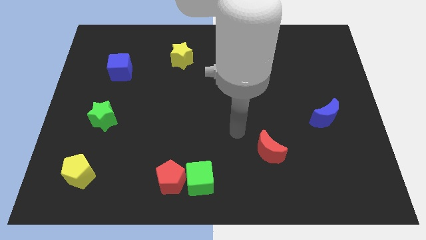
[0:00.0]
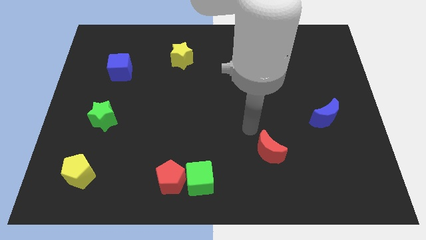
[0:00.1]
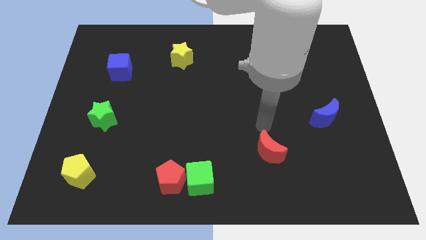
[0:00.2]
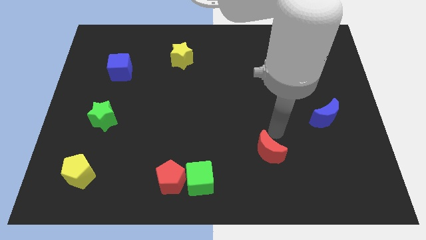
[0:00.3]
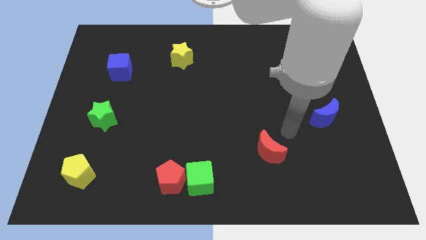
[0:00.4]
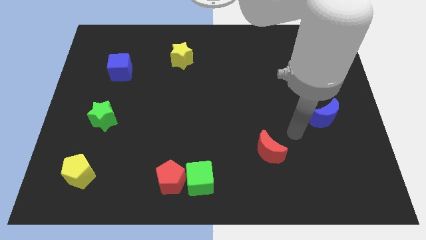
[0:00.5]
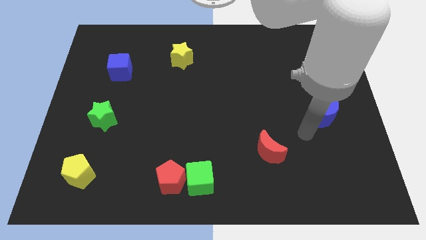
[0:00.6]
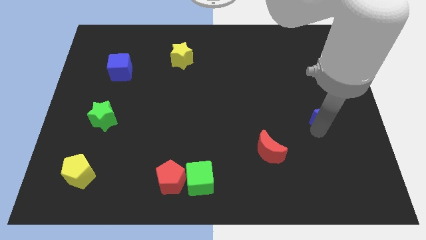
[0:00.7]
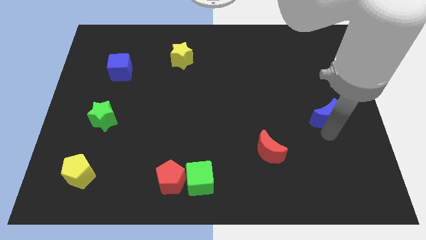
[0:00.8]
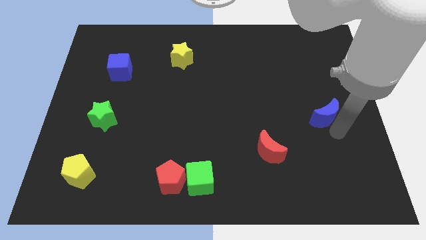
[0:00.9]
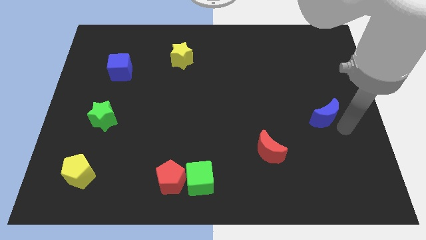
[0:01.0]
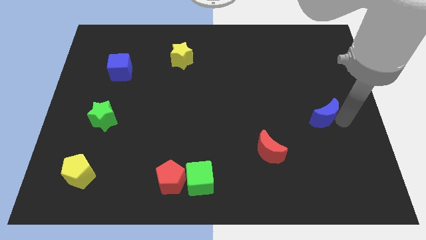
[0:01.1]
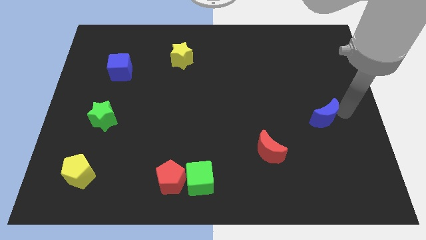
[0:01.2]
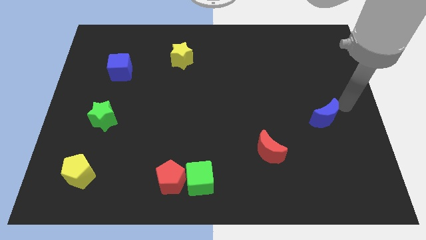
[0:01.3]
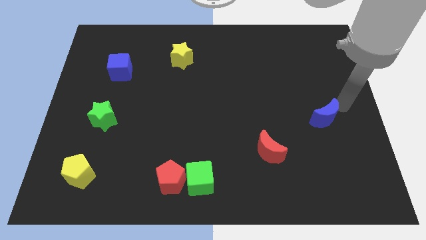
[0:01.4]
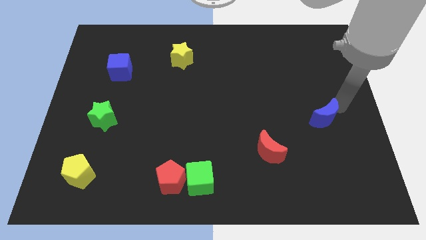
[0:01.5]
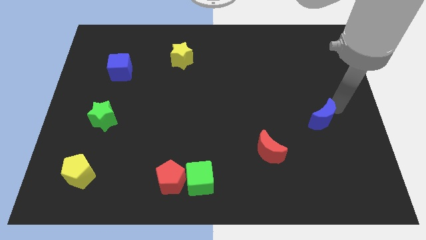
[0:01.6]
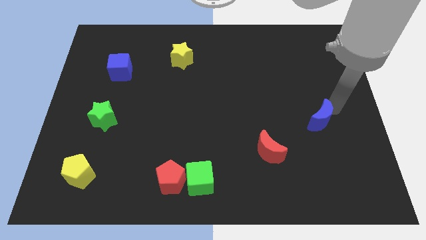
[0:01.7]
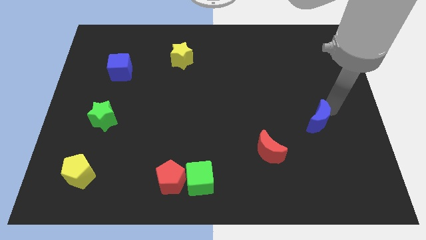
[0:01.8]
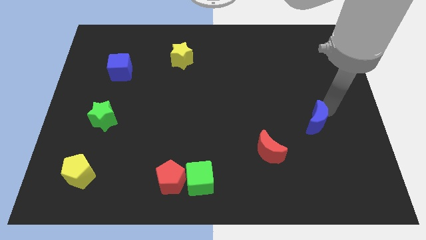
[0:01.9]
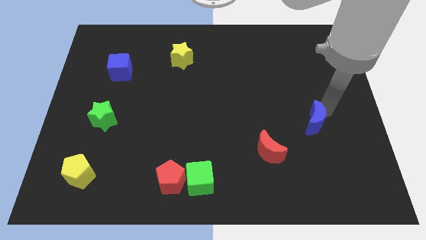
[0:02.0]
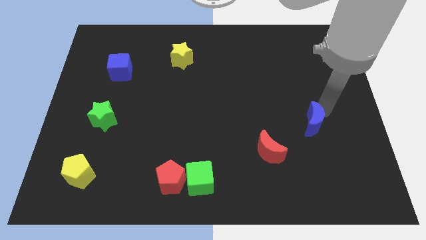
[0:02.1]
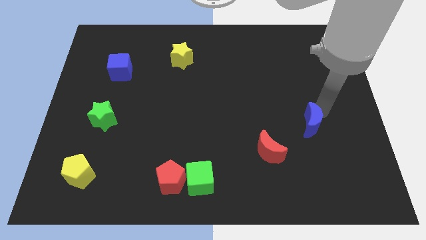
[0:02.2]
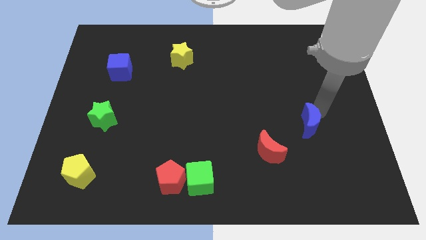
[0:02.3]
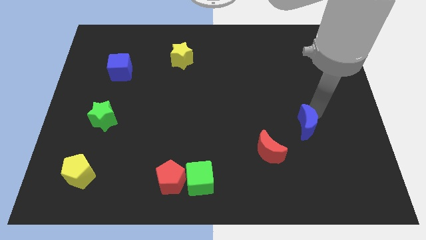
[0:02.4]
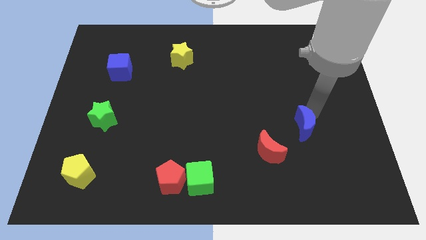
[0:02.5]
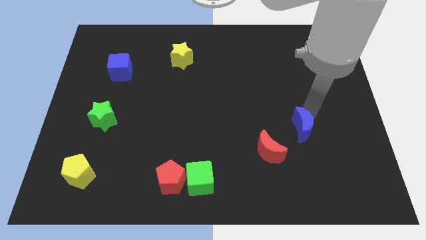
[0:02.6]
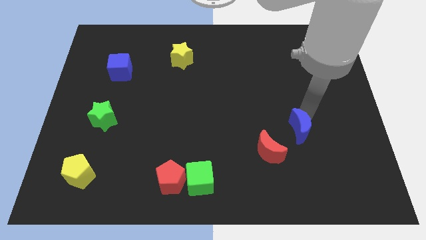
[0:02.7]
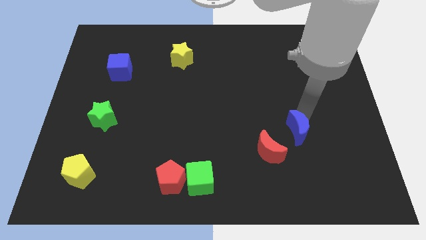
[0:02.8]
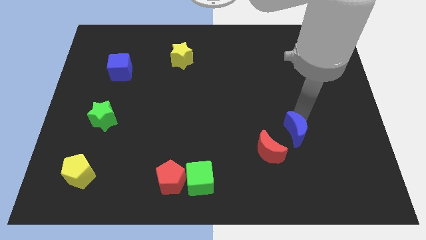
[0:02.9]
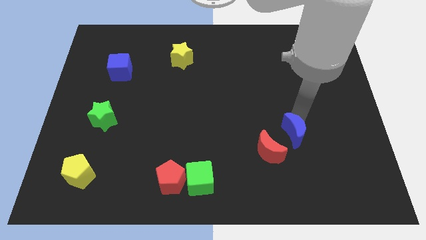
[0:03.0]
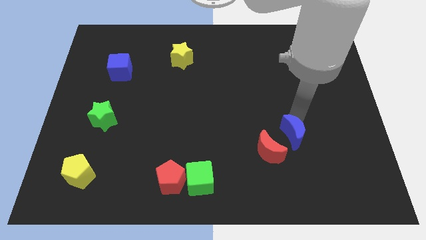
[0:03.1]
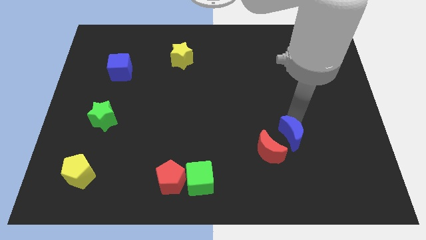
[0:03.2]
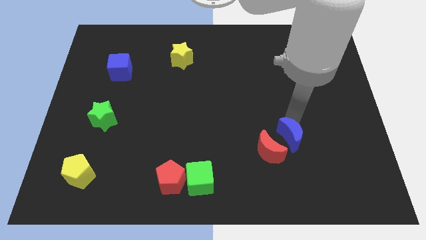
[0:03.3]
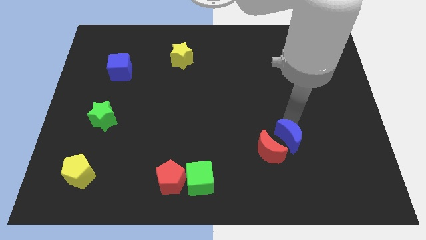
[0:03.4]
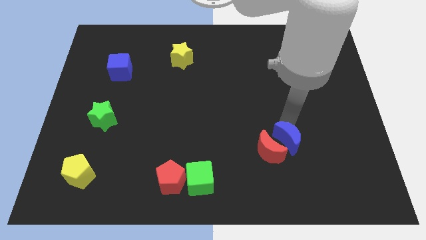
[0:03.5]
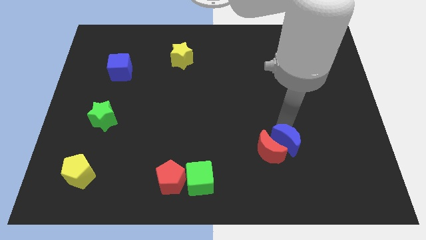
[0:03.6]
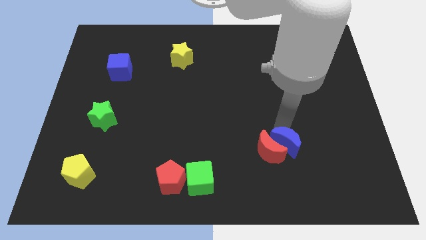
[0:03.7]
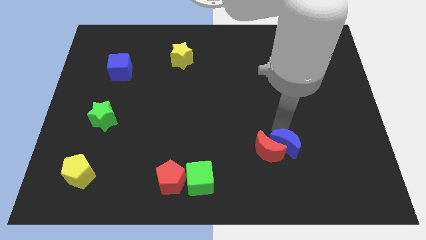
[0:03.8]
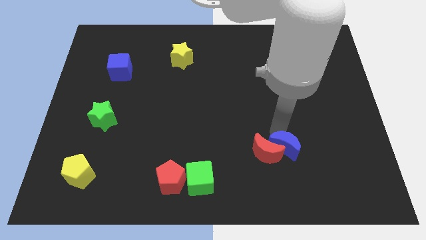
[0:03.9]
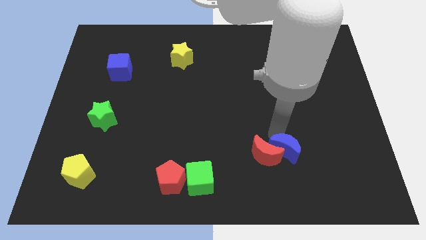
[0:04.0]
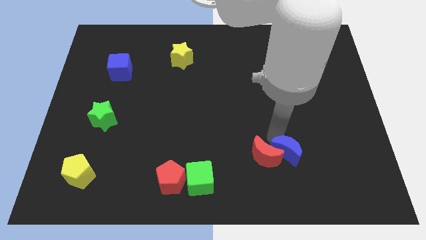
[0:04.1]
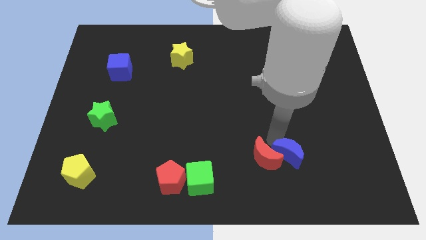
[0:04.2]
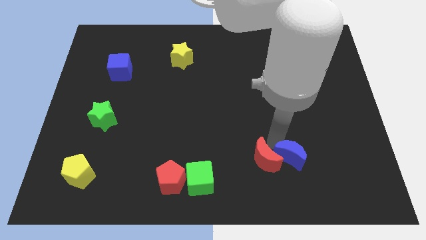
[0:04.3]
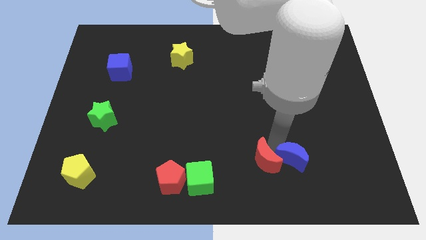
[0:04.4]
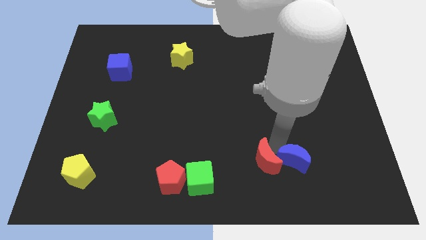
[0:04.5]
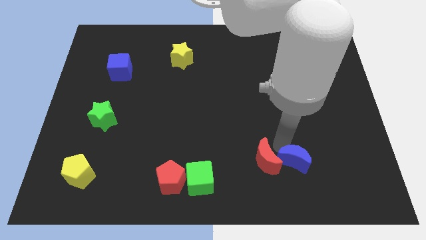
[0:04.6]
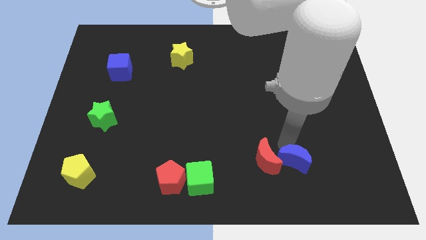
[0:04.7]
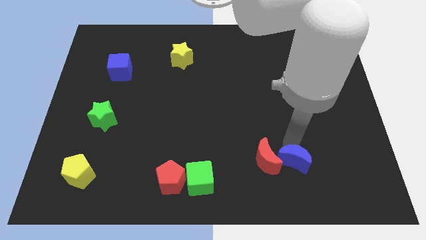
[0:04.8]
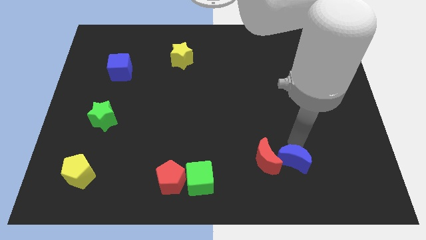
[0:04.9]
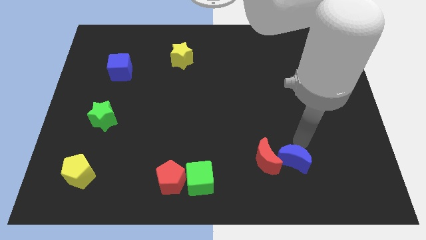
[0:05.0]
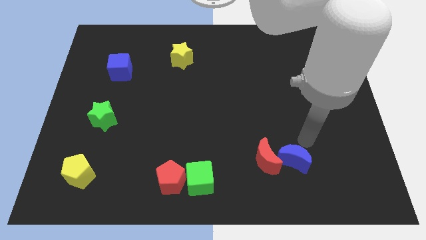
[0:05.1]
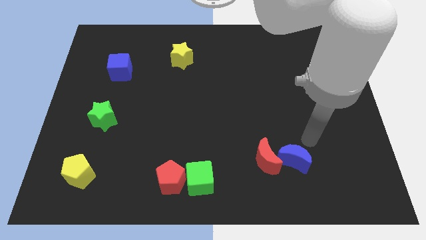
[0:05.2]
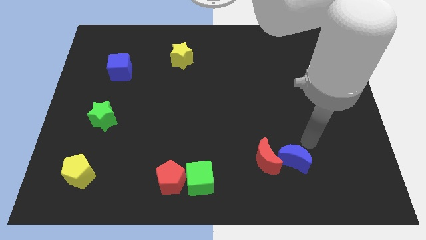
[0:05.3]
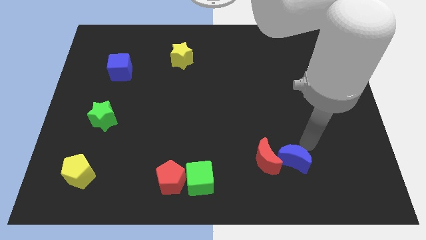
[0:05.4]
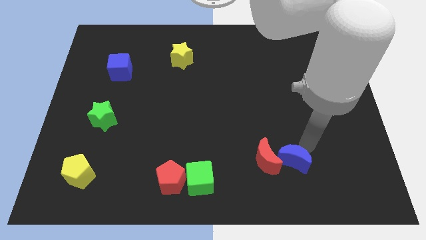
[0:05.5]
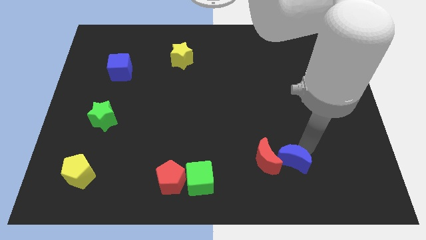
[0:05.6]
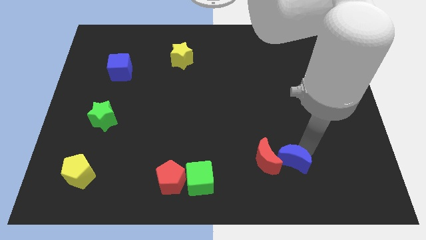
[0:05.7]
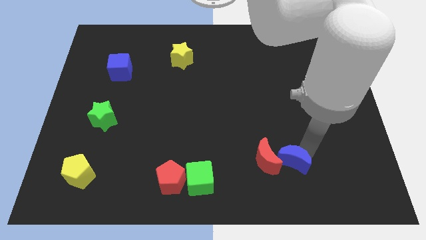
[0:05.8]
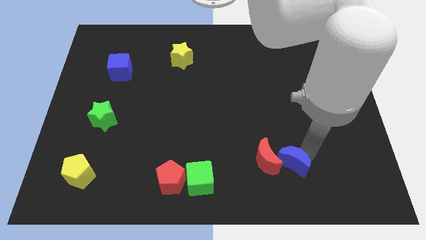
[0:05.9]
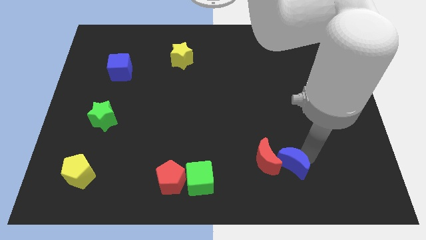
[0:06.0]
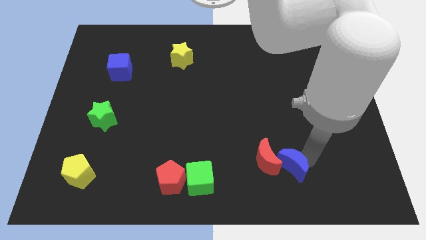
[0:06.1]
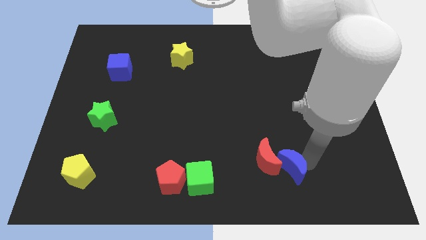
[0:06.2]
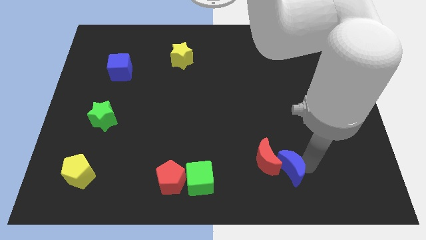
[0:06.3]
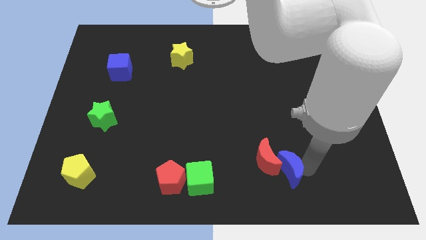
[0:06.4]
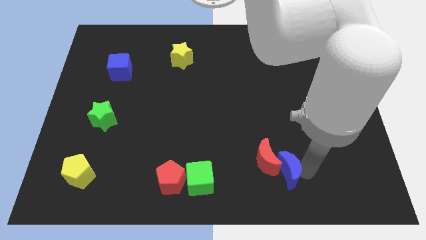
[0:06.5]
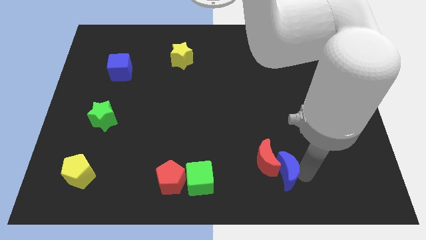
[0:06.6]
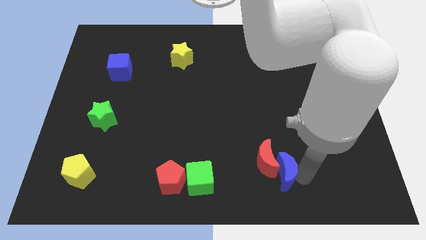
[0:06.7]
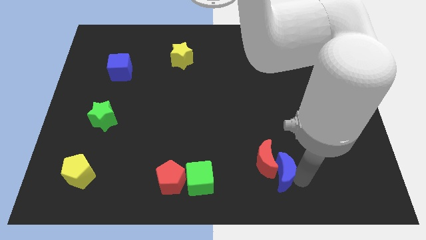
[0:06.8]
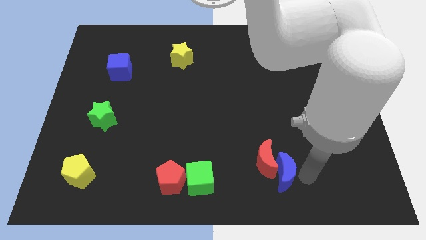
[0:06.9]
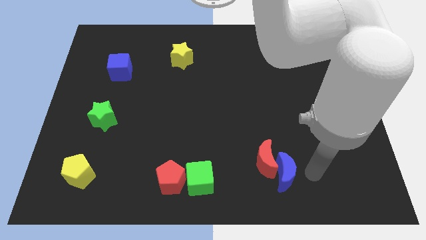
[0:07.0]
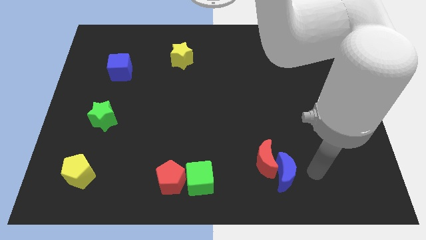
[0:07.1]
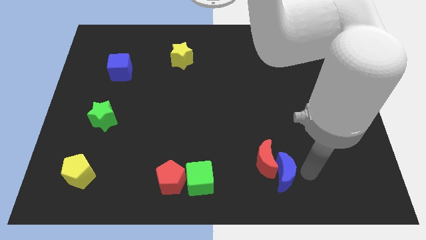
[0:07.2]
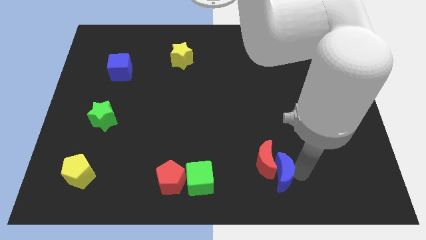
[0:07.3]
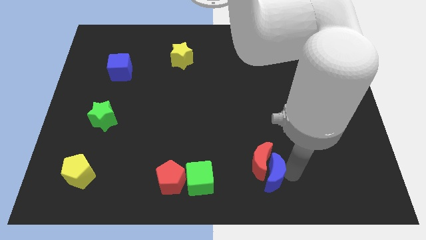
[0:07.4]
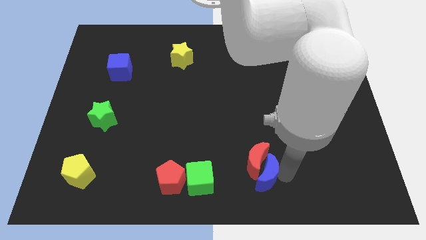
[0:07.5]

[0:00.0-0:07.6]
move the blue moon to the bottom side
